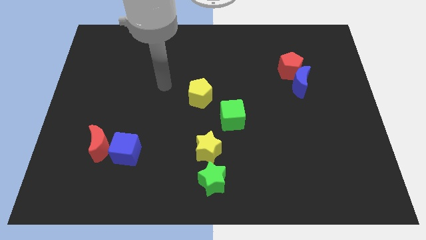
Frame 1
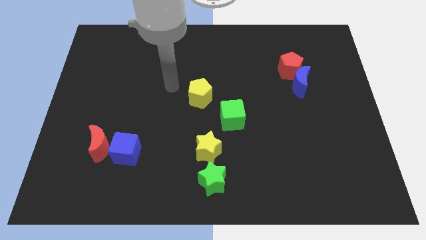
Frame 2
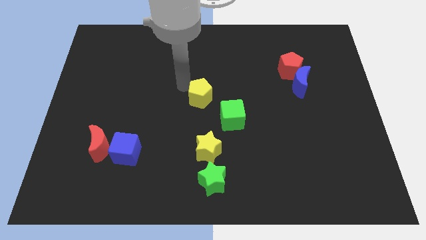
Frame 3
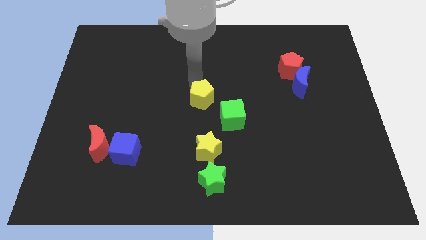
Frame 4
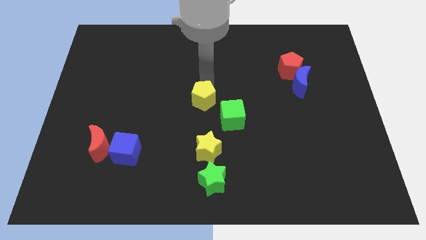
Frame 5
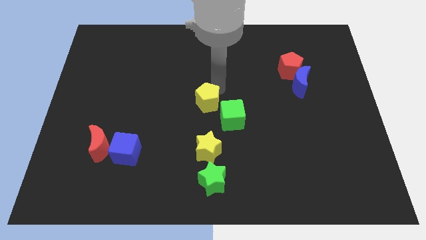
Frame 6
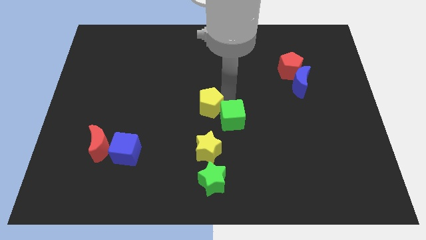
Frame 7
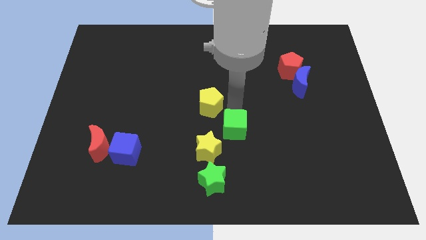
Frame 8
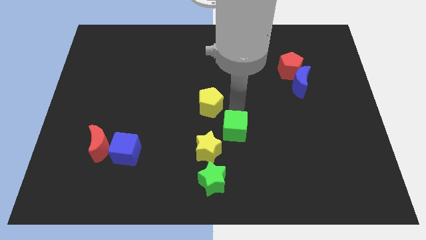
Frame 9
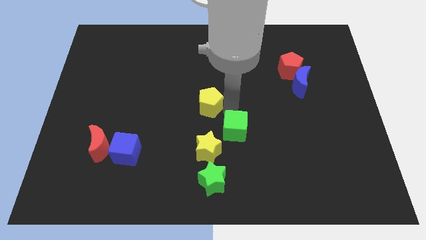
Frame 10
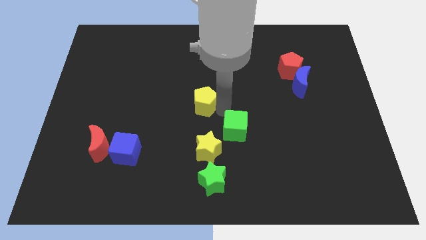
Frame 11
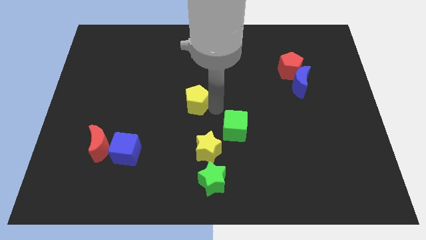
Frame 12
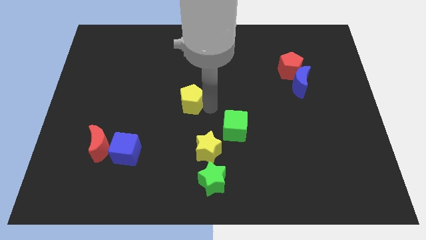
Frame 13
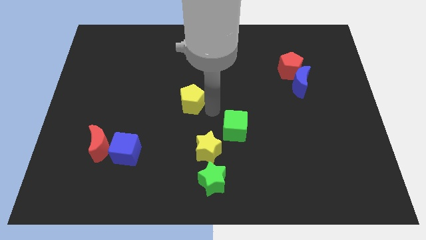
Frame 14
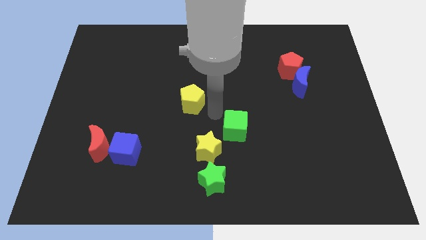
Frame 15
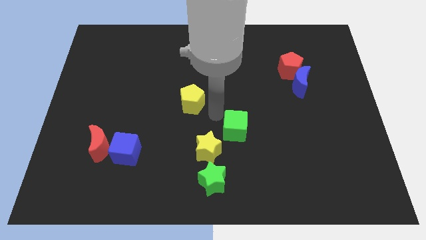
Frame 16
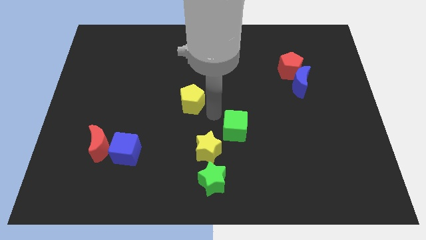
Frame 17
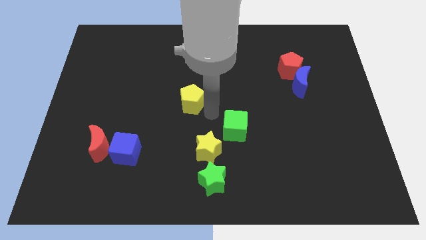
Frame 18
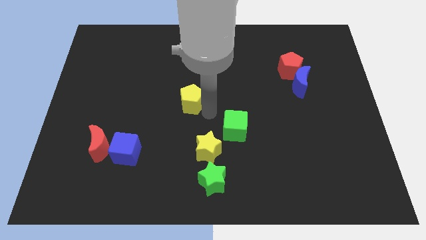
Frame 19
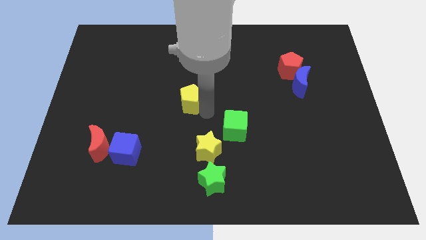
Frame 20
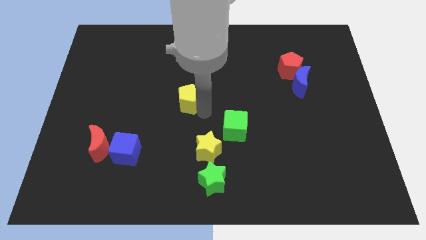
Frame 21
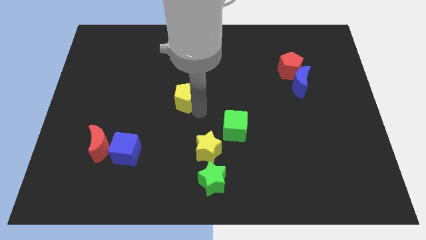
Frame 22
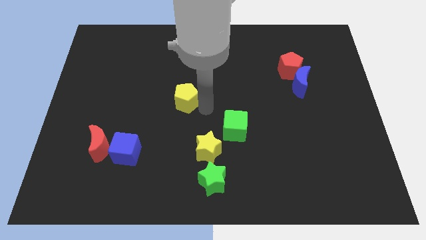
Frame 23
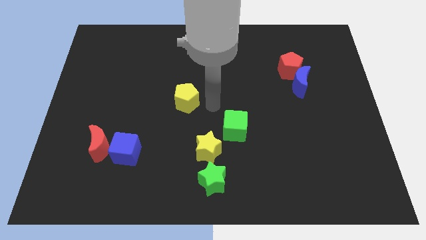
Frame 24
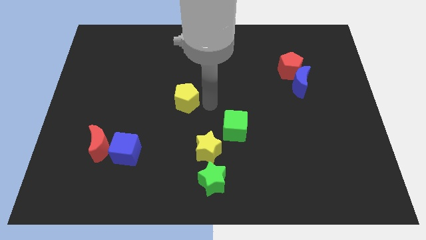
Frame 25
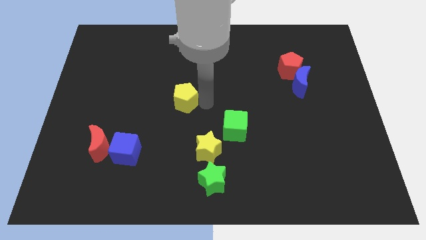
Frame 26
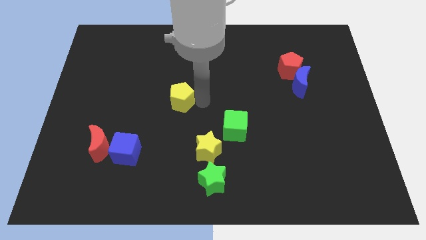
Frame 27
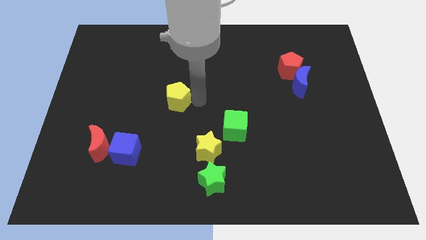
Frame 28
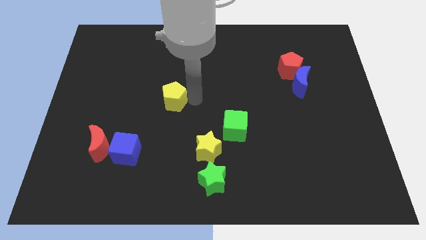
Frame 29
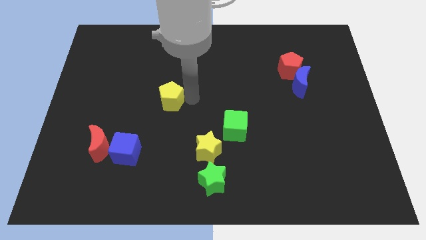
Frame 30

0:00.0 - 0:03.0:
slightly move the yellow pentagon to the left

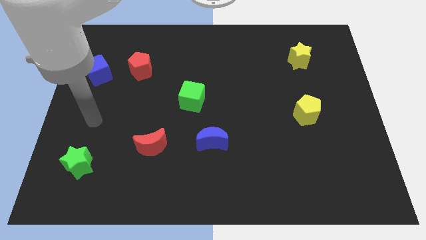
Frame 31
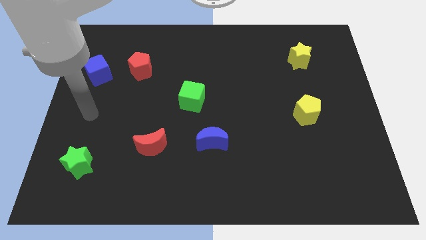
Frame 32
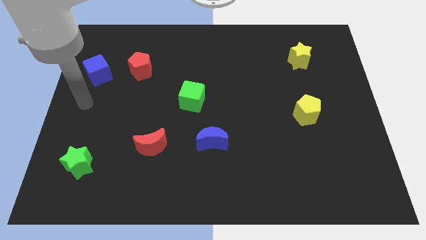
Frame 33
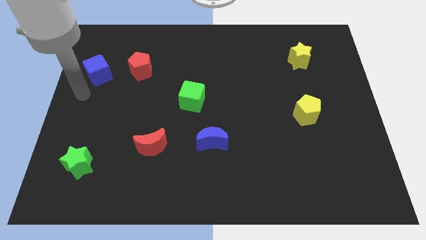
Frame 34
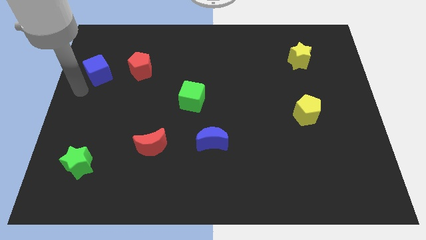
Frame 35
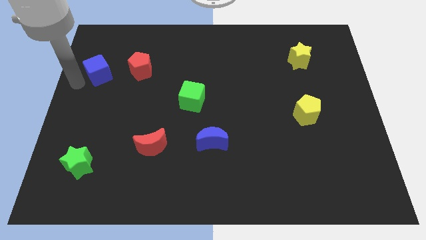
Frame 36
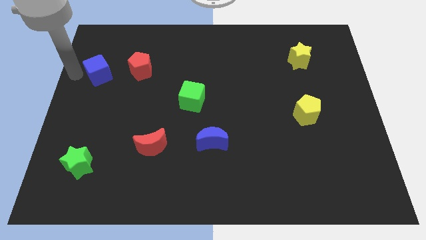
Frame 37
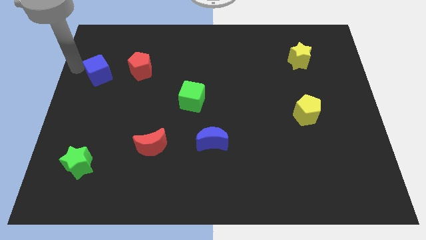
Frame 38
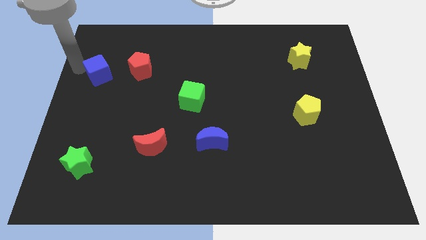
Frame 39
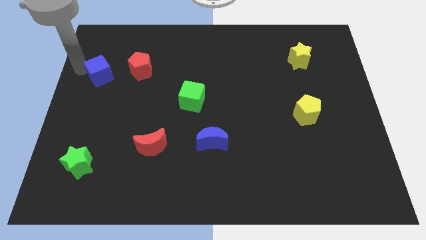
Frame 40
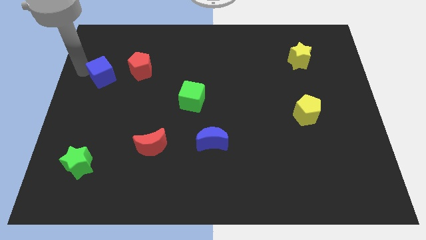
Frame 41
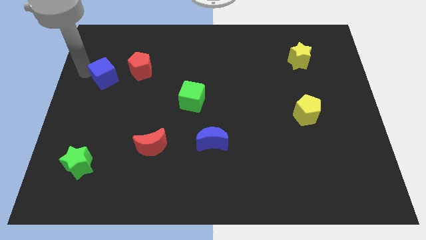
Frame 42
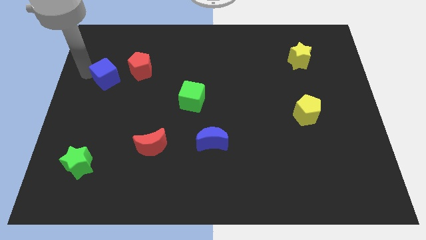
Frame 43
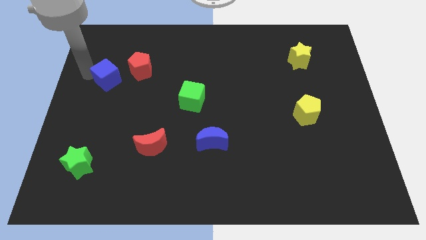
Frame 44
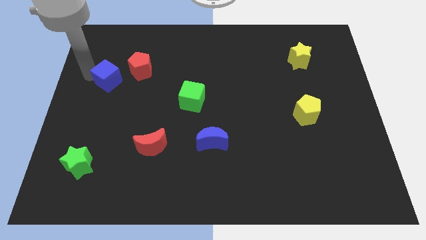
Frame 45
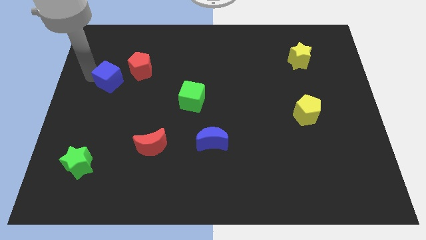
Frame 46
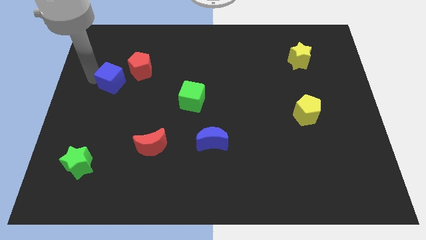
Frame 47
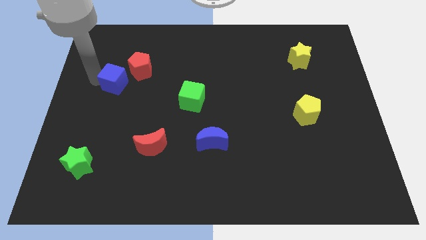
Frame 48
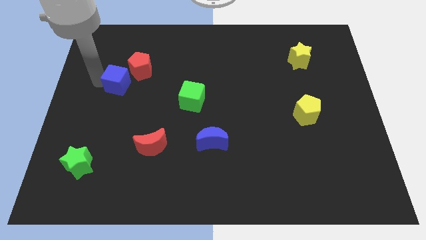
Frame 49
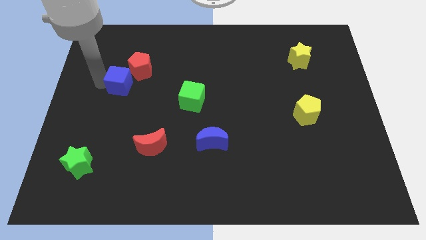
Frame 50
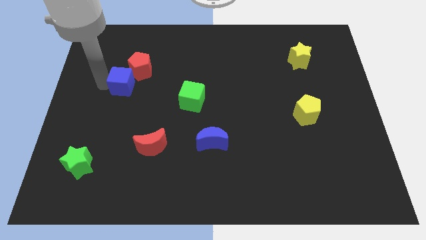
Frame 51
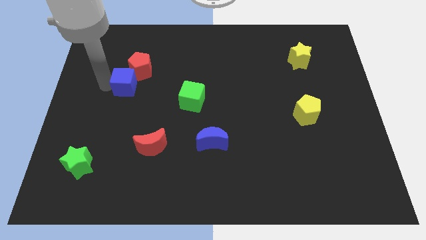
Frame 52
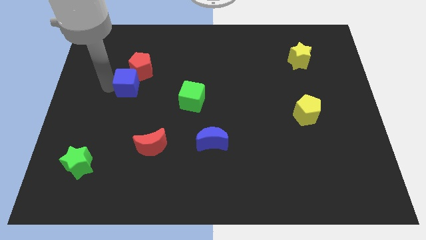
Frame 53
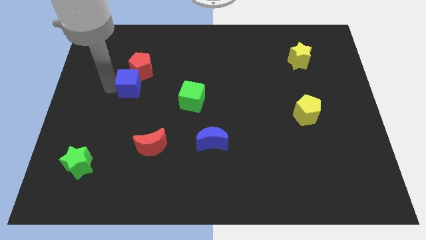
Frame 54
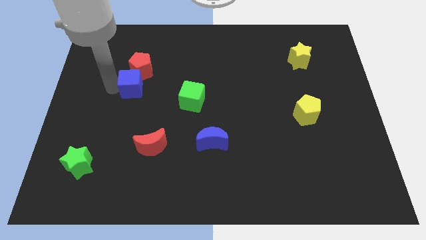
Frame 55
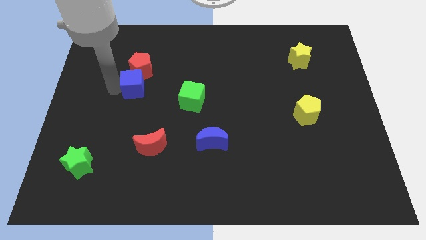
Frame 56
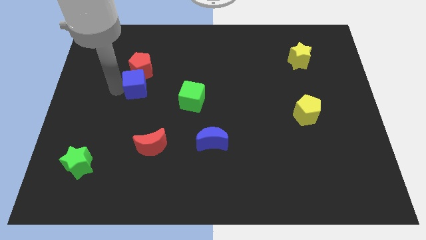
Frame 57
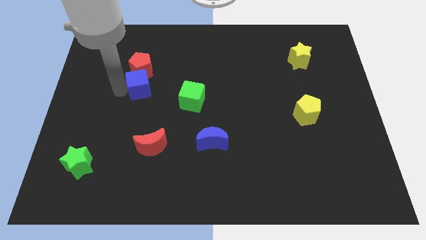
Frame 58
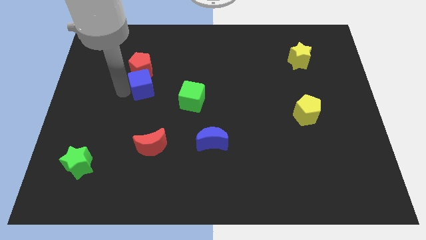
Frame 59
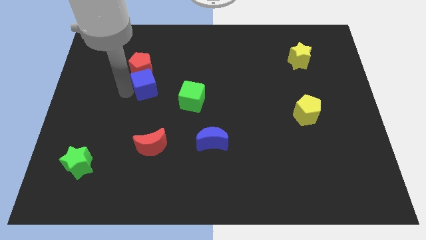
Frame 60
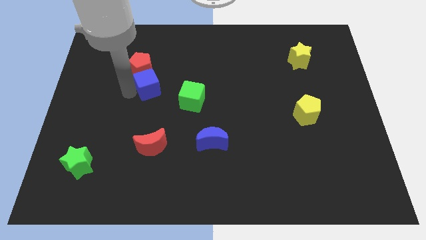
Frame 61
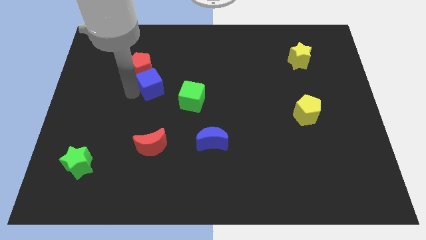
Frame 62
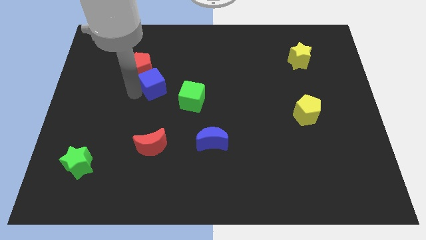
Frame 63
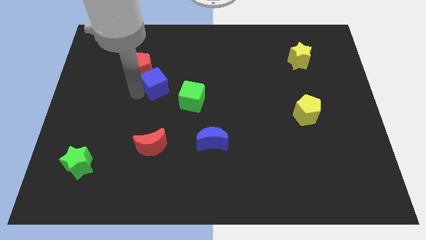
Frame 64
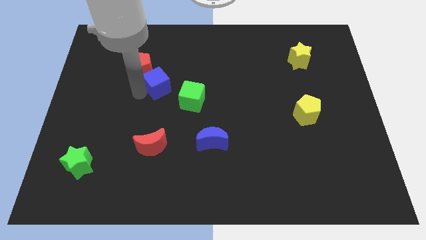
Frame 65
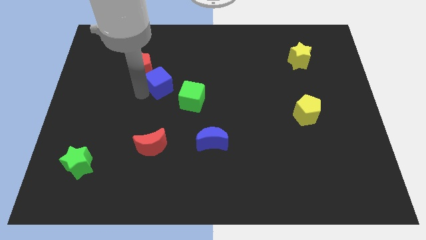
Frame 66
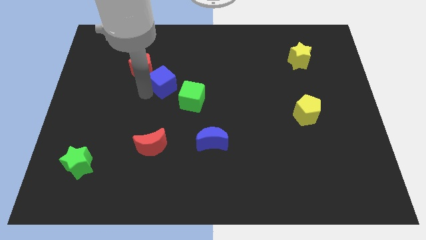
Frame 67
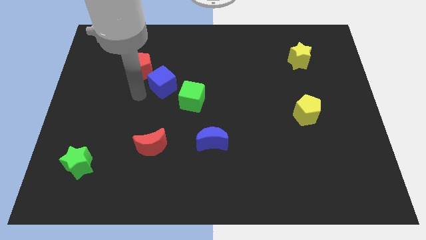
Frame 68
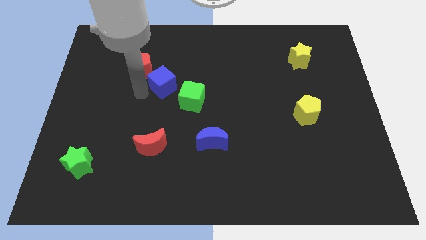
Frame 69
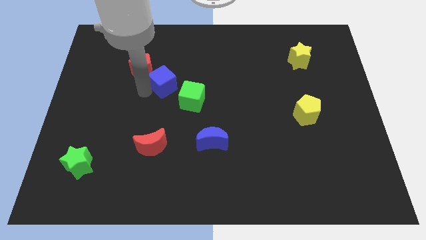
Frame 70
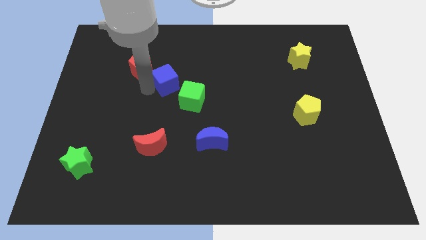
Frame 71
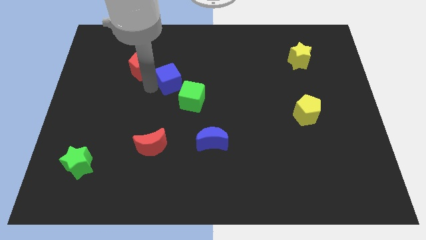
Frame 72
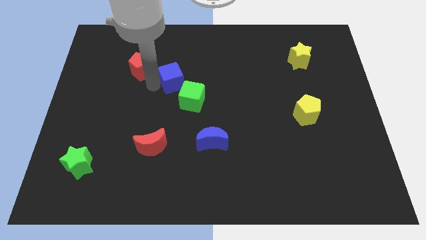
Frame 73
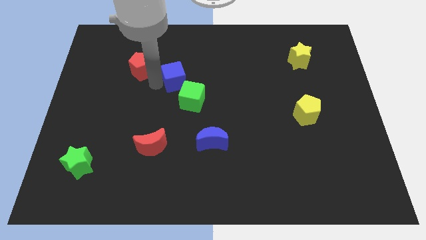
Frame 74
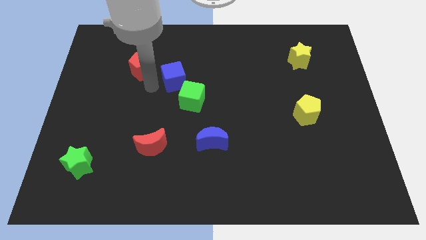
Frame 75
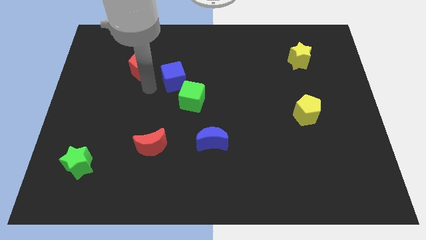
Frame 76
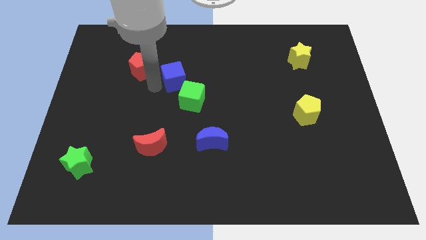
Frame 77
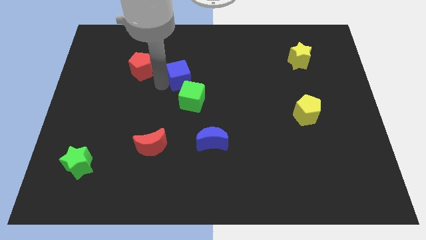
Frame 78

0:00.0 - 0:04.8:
push the blue cube right
